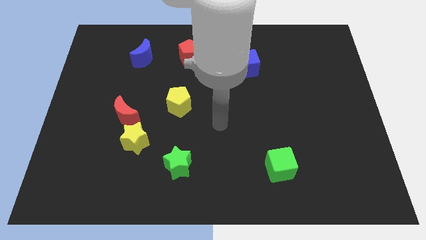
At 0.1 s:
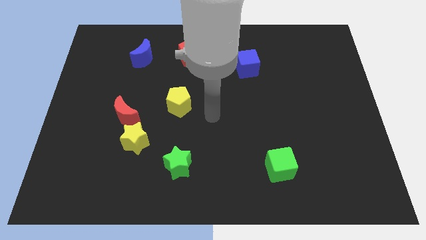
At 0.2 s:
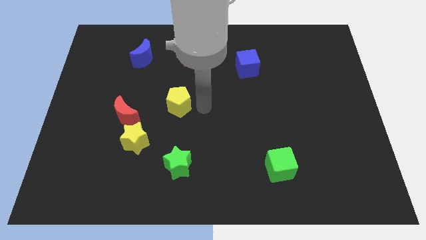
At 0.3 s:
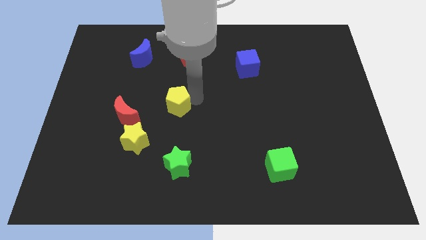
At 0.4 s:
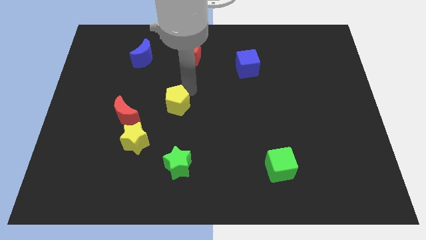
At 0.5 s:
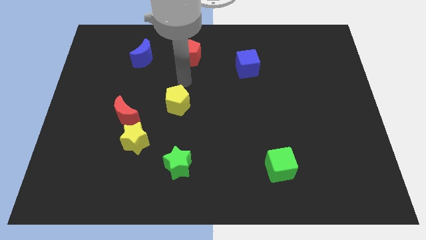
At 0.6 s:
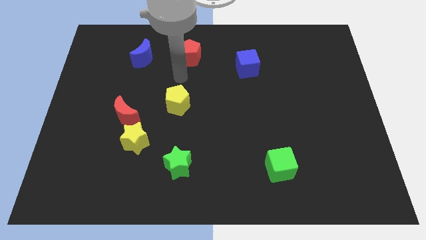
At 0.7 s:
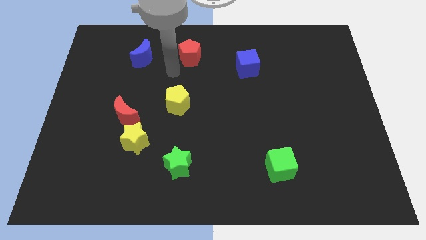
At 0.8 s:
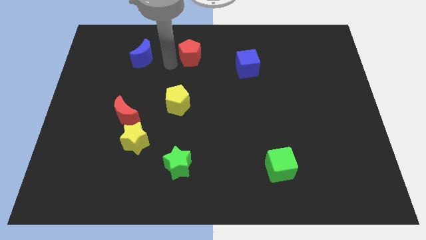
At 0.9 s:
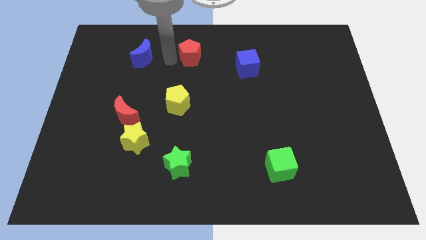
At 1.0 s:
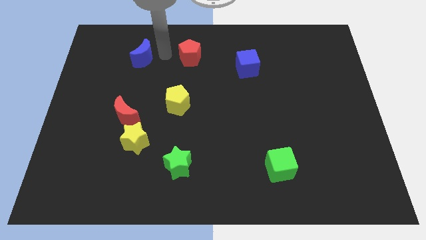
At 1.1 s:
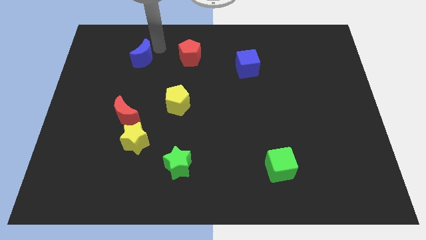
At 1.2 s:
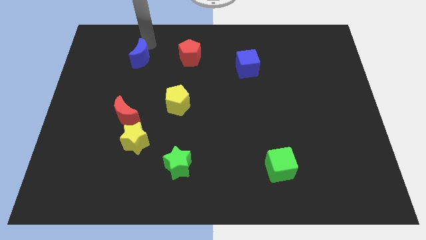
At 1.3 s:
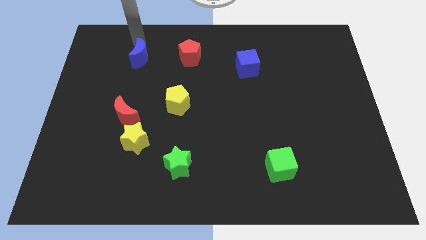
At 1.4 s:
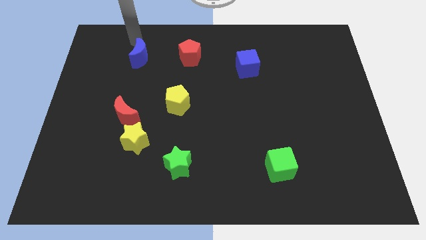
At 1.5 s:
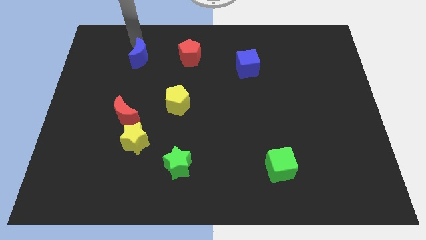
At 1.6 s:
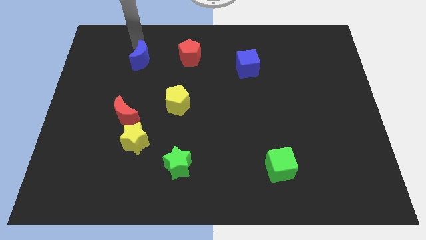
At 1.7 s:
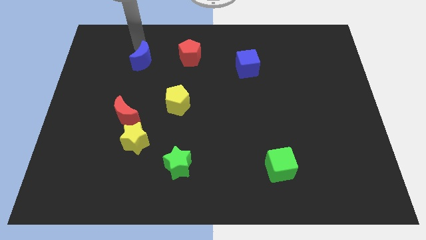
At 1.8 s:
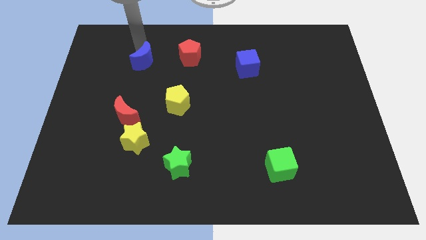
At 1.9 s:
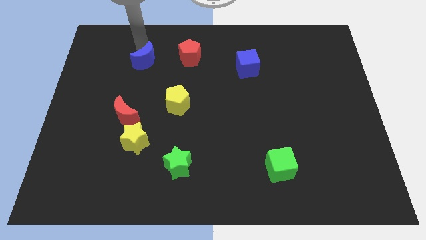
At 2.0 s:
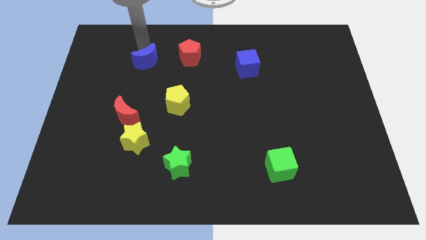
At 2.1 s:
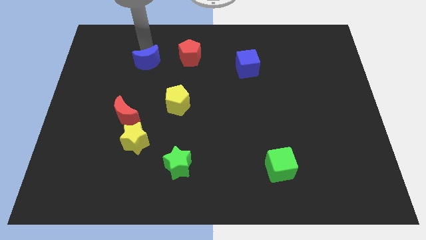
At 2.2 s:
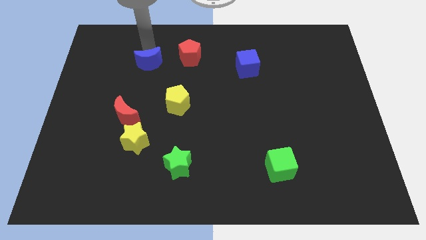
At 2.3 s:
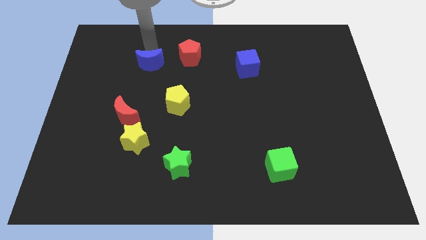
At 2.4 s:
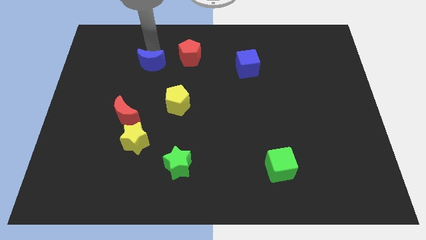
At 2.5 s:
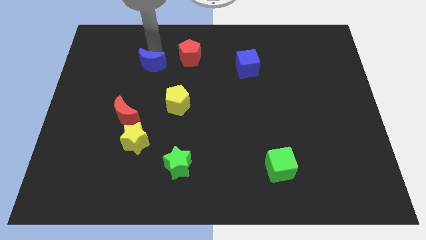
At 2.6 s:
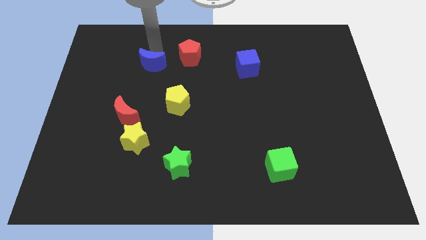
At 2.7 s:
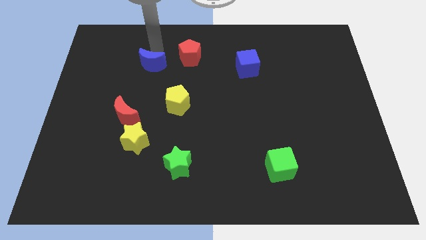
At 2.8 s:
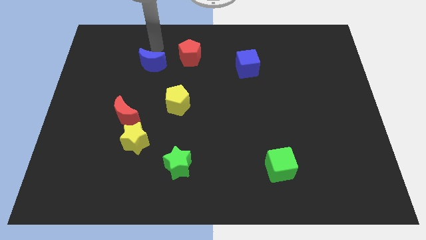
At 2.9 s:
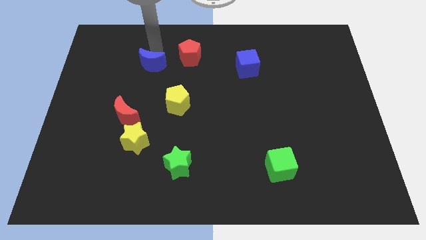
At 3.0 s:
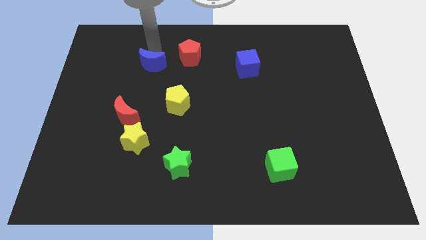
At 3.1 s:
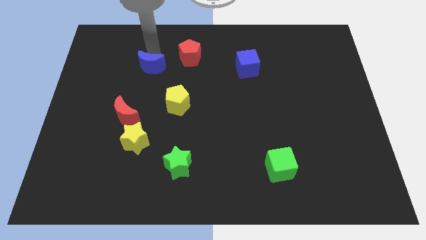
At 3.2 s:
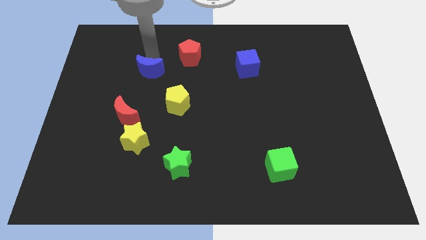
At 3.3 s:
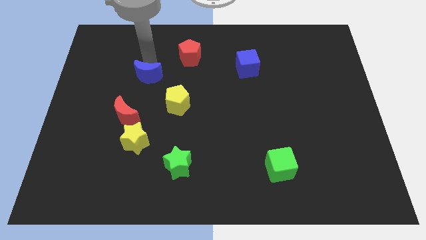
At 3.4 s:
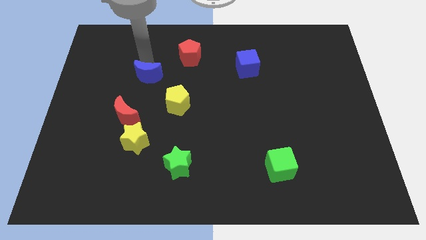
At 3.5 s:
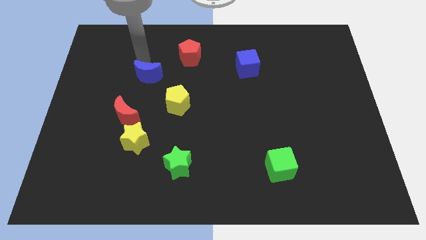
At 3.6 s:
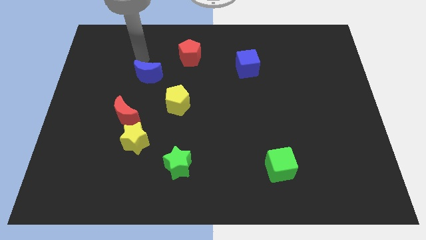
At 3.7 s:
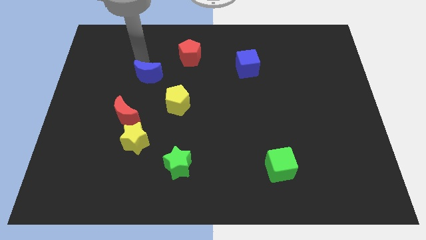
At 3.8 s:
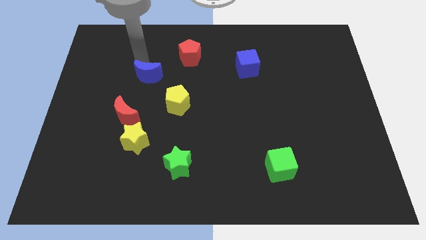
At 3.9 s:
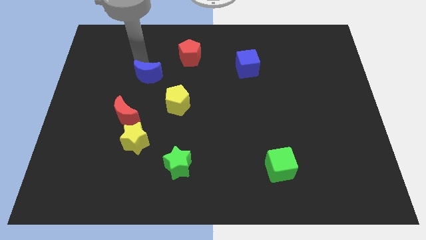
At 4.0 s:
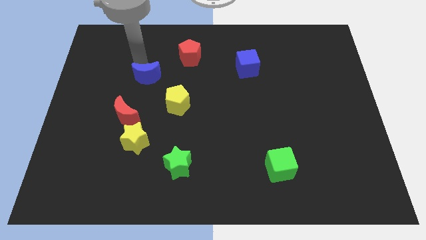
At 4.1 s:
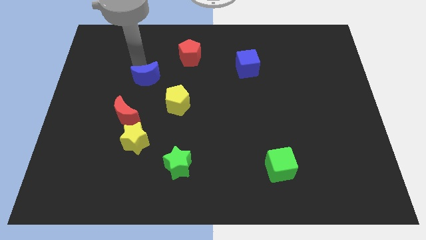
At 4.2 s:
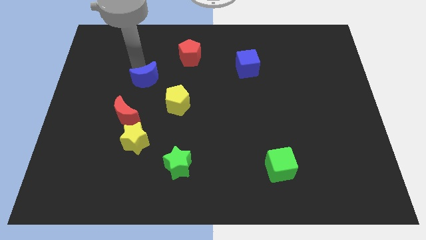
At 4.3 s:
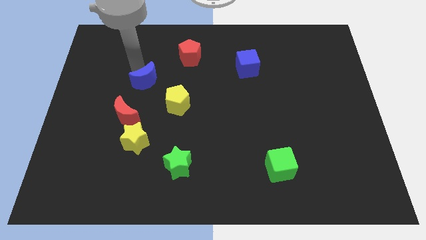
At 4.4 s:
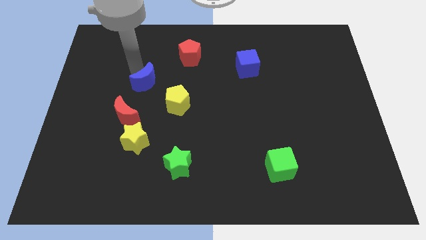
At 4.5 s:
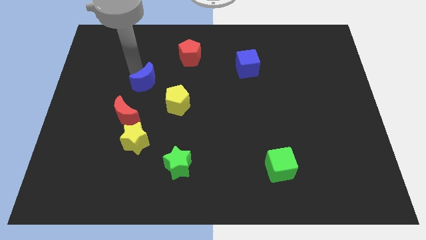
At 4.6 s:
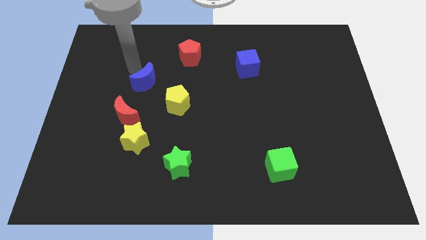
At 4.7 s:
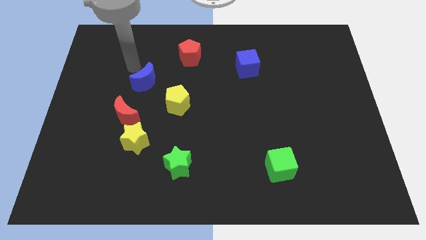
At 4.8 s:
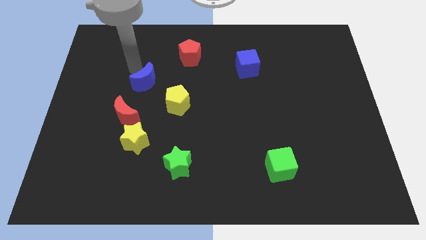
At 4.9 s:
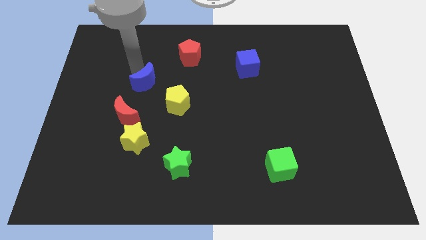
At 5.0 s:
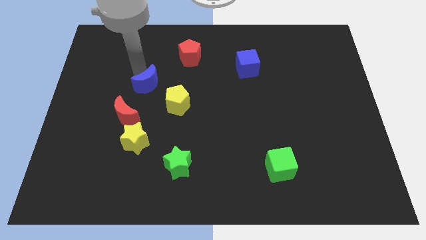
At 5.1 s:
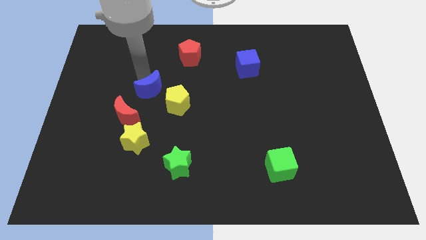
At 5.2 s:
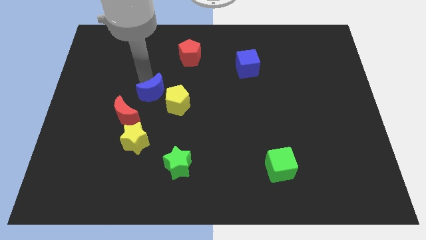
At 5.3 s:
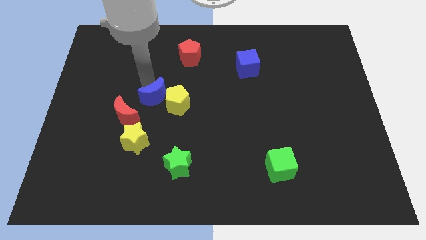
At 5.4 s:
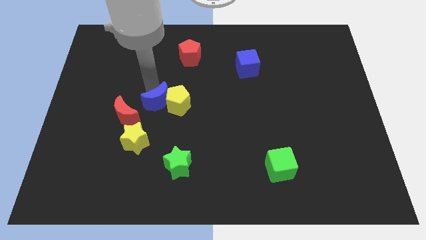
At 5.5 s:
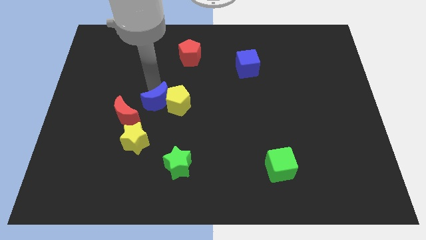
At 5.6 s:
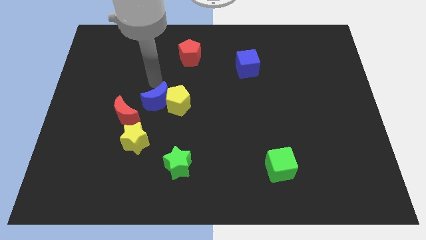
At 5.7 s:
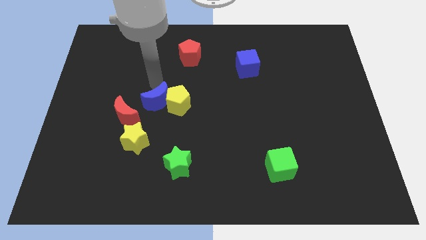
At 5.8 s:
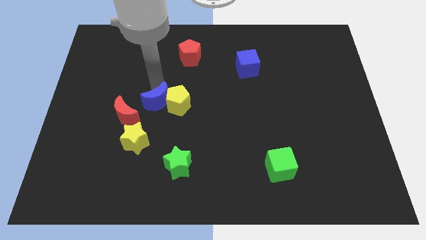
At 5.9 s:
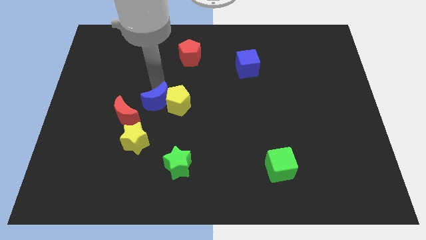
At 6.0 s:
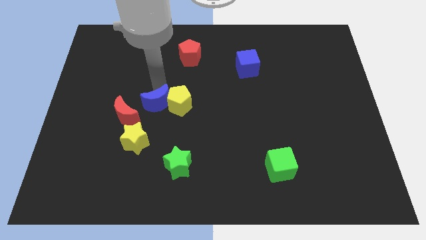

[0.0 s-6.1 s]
move the blue moon to the top right side of the yellow star

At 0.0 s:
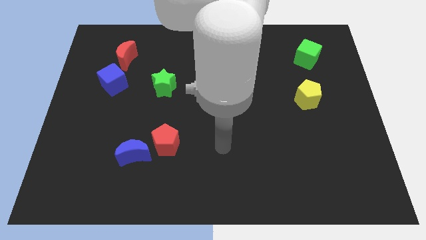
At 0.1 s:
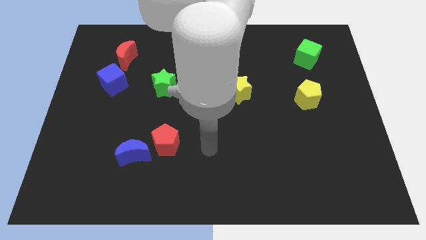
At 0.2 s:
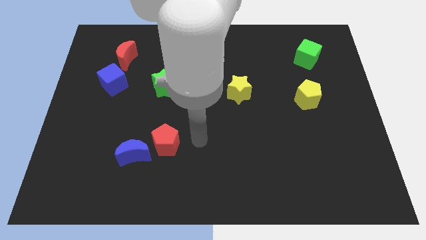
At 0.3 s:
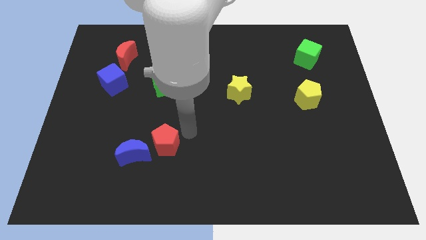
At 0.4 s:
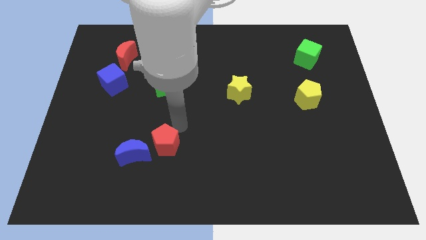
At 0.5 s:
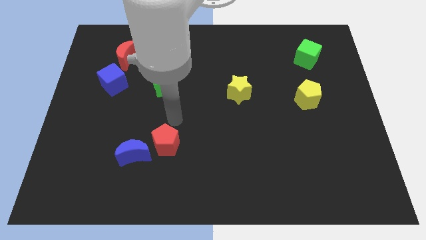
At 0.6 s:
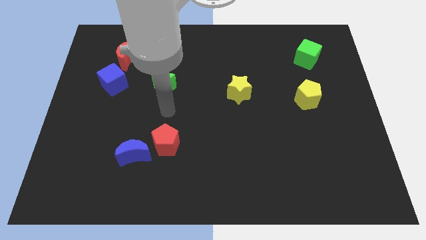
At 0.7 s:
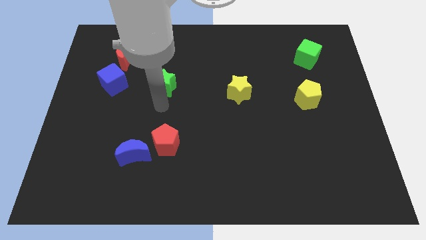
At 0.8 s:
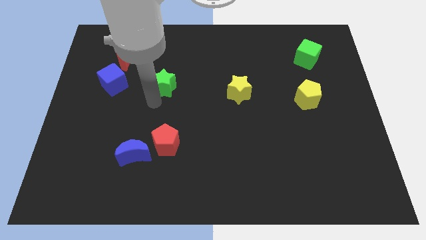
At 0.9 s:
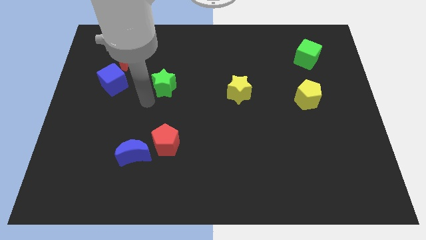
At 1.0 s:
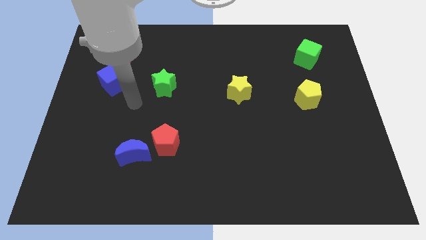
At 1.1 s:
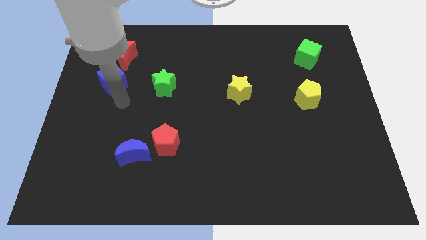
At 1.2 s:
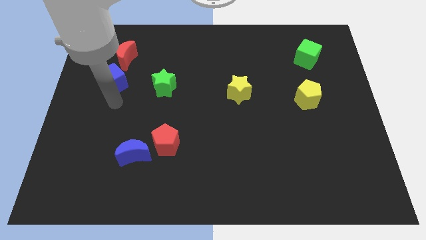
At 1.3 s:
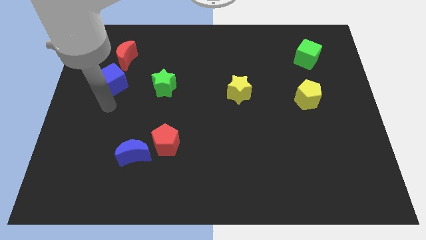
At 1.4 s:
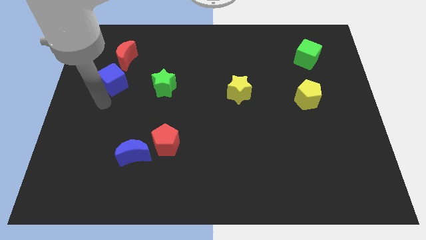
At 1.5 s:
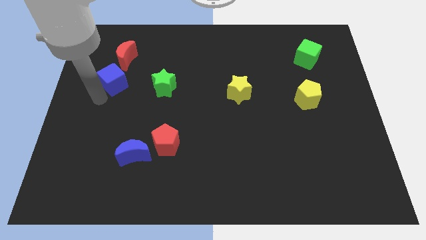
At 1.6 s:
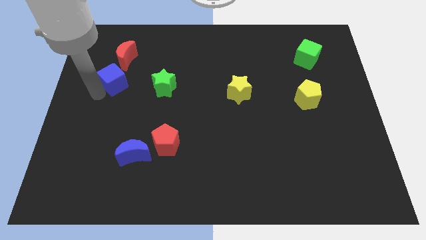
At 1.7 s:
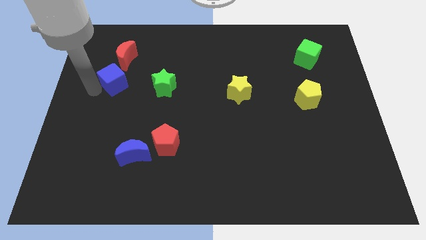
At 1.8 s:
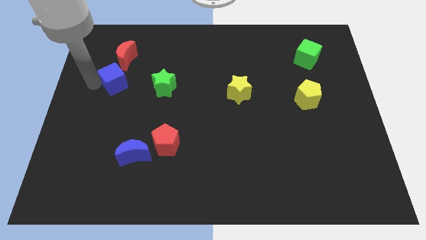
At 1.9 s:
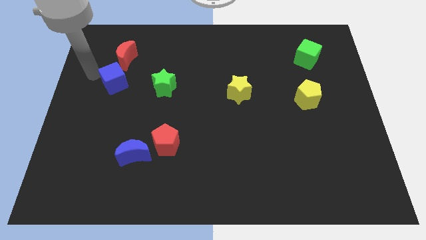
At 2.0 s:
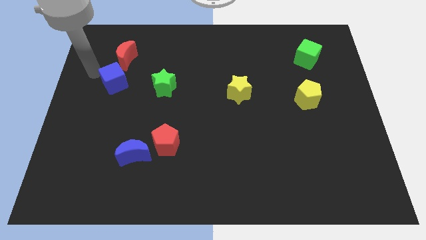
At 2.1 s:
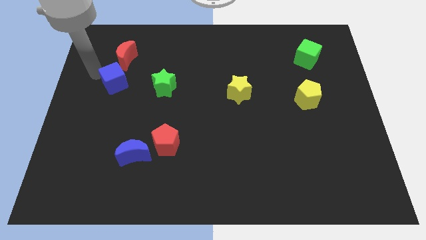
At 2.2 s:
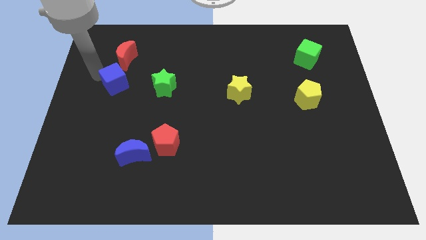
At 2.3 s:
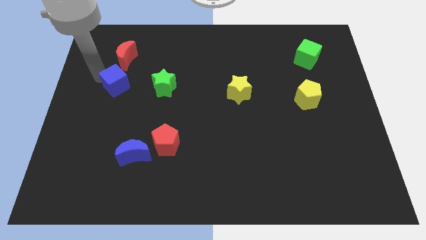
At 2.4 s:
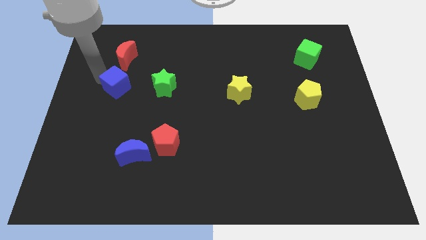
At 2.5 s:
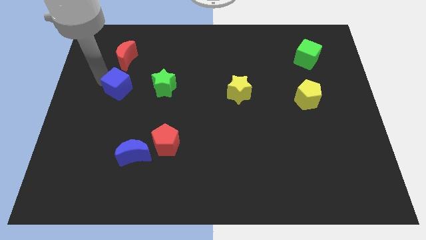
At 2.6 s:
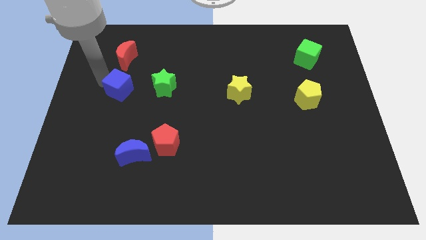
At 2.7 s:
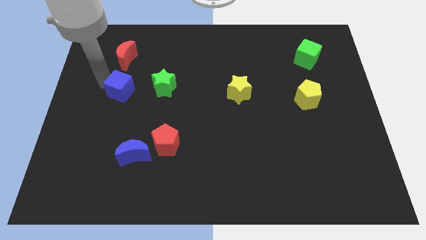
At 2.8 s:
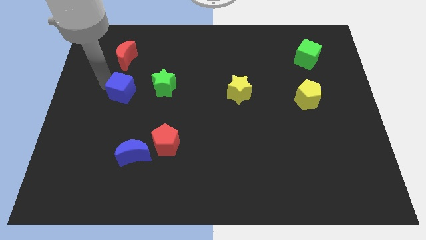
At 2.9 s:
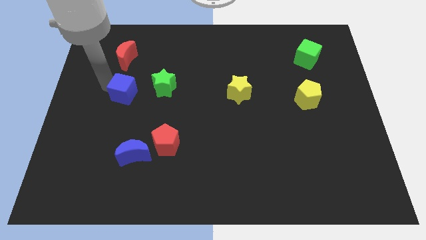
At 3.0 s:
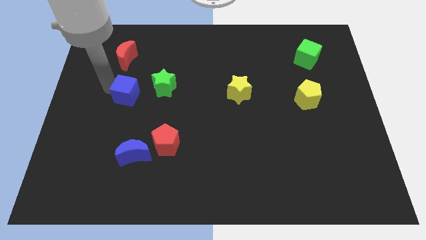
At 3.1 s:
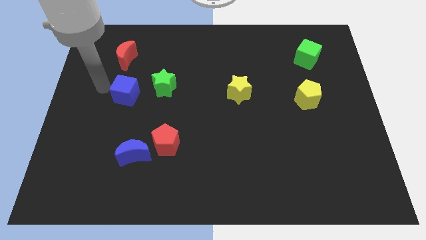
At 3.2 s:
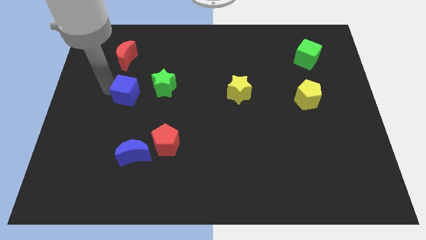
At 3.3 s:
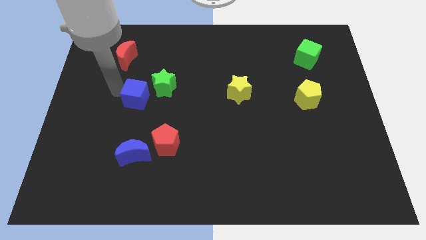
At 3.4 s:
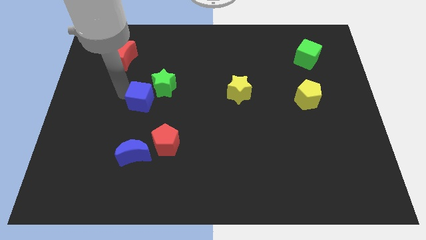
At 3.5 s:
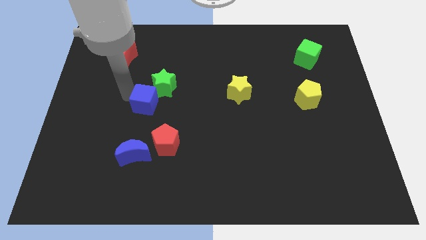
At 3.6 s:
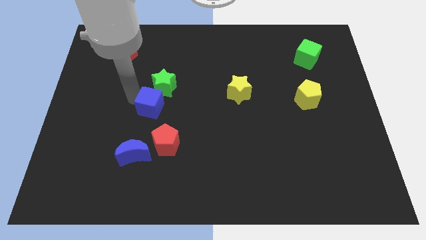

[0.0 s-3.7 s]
push the blue cube above the red pentagon
